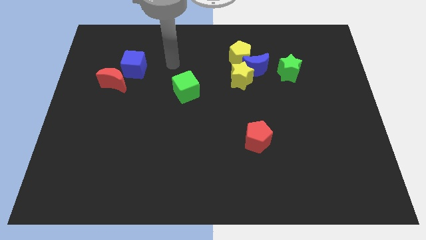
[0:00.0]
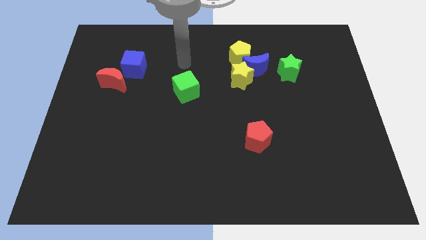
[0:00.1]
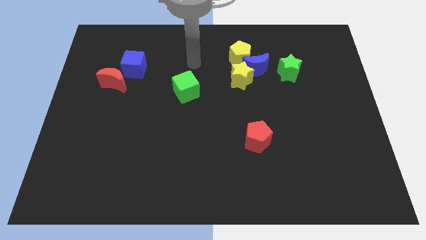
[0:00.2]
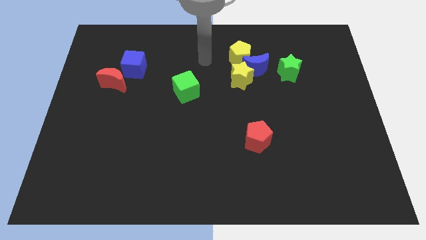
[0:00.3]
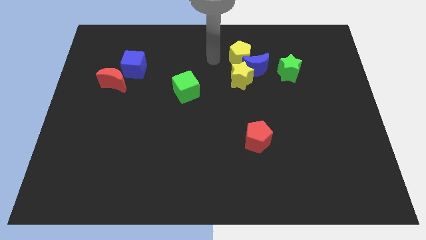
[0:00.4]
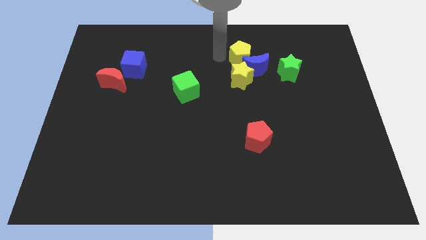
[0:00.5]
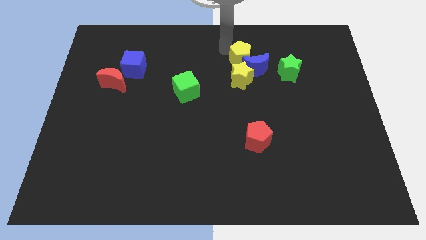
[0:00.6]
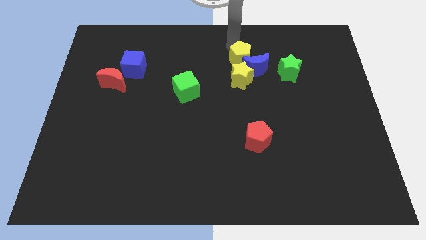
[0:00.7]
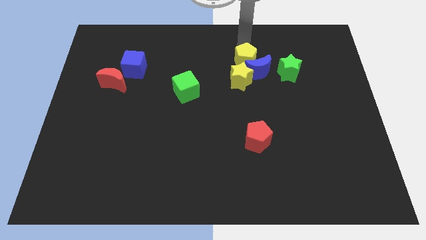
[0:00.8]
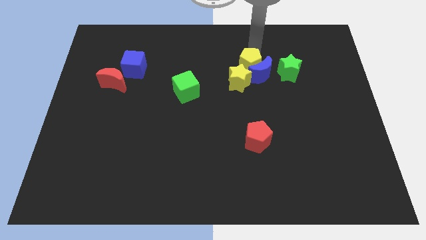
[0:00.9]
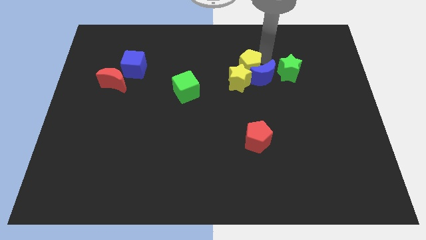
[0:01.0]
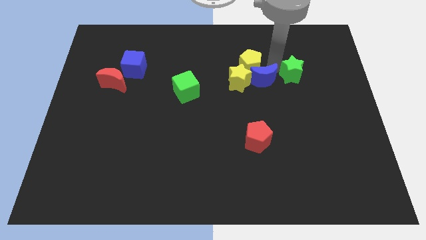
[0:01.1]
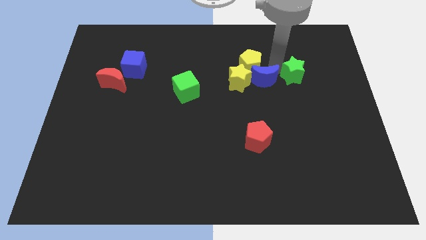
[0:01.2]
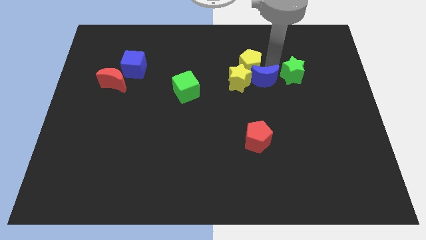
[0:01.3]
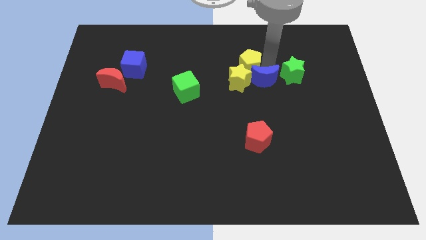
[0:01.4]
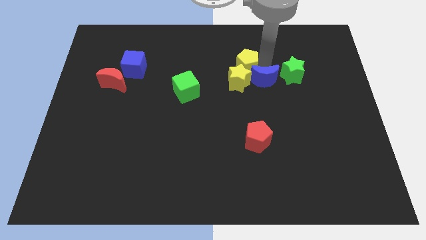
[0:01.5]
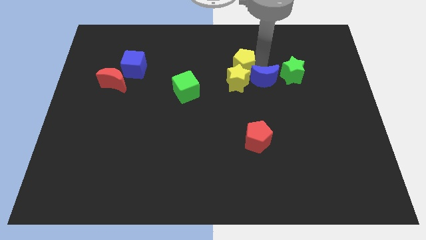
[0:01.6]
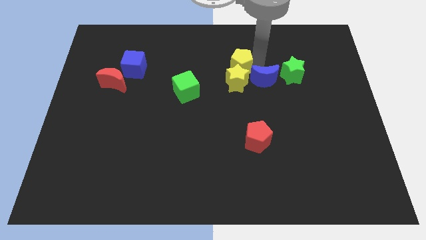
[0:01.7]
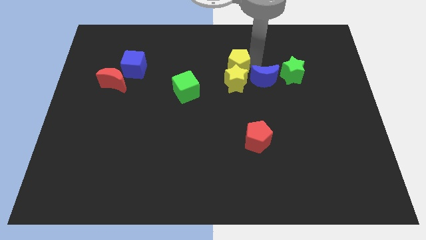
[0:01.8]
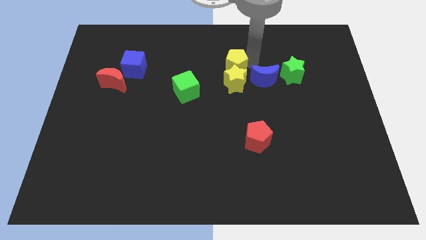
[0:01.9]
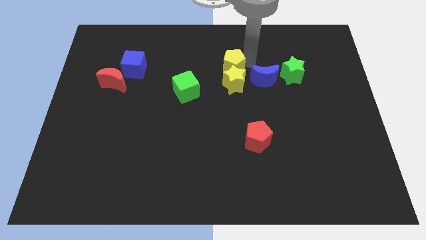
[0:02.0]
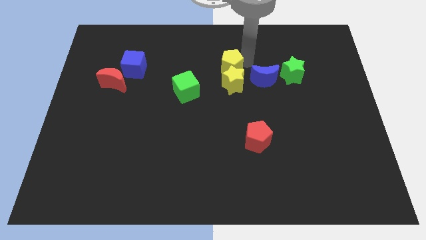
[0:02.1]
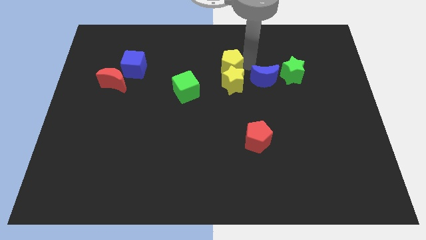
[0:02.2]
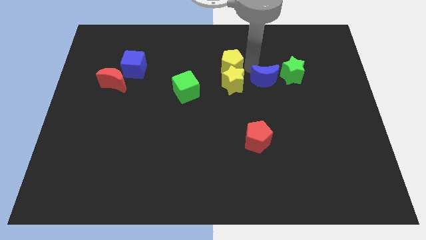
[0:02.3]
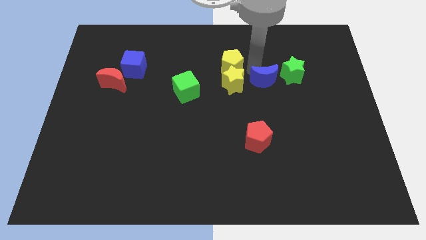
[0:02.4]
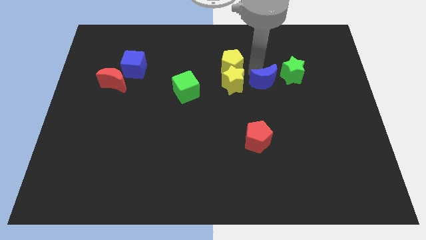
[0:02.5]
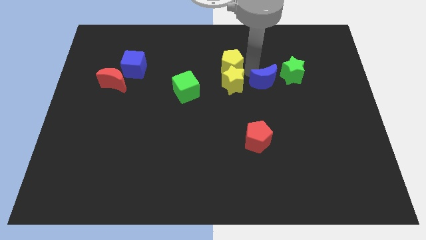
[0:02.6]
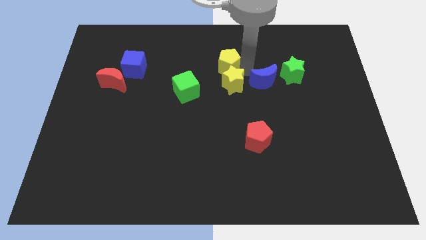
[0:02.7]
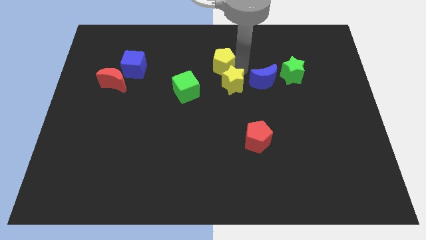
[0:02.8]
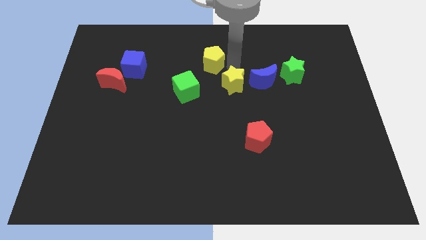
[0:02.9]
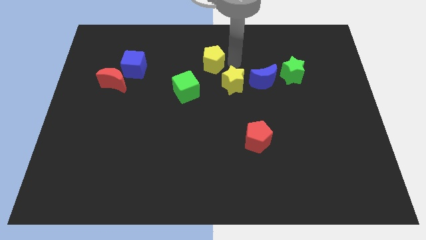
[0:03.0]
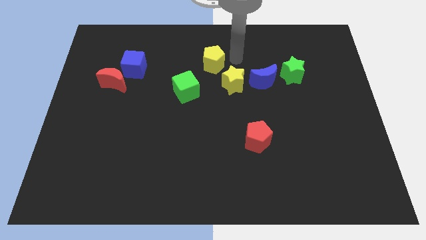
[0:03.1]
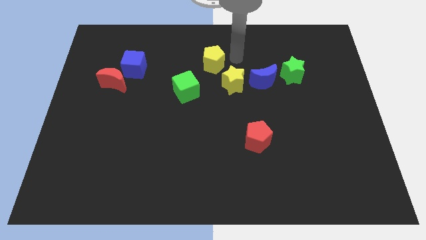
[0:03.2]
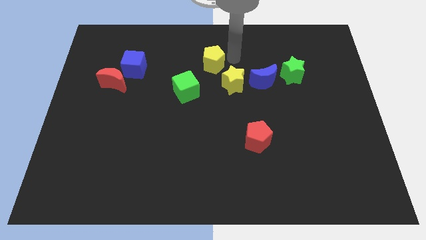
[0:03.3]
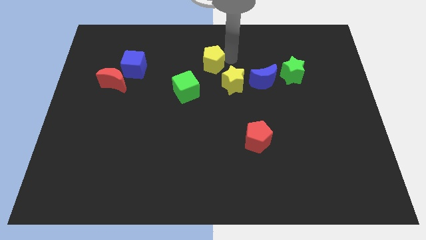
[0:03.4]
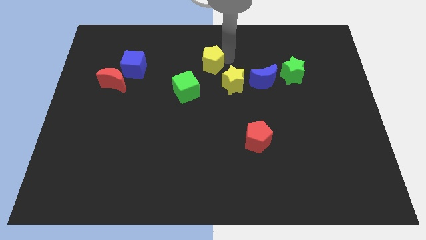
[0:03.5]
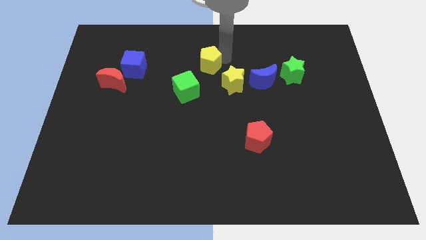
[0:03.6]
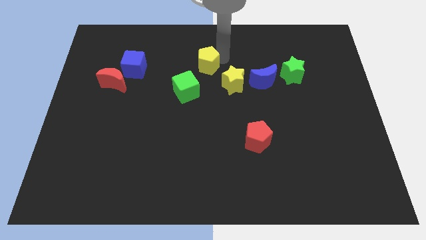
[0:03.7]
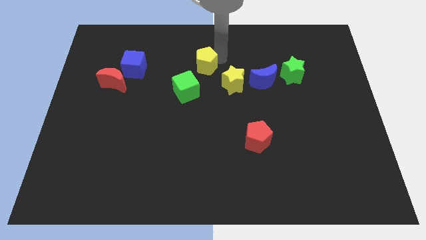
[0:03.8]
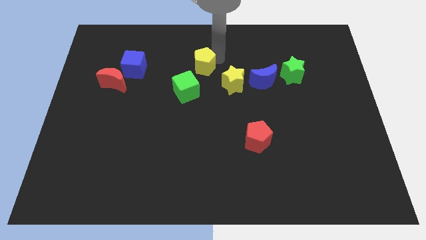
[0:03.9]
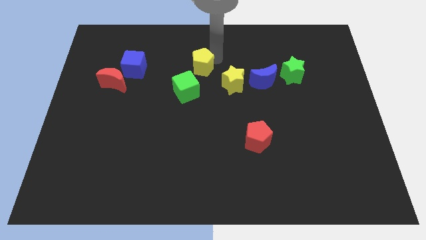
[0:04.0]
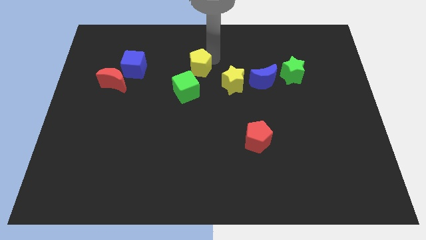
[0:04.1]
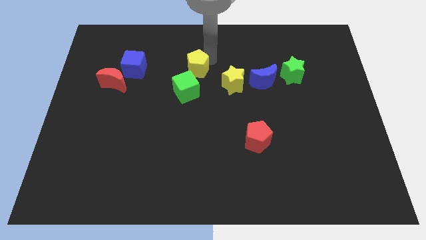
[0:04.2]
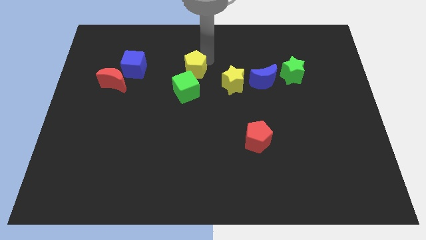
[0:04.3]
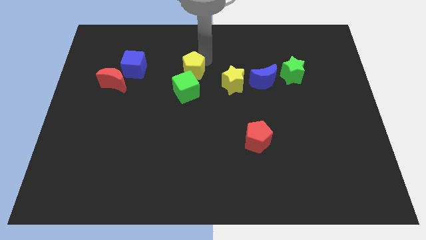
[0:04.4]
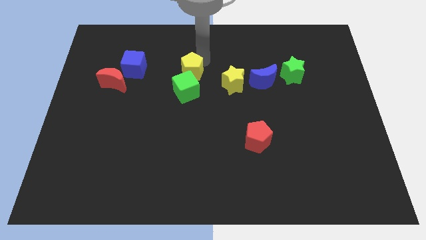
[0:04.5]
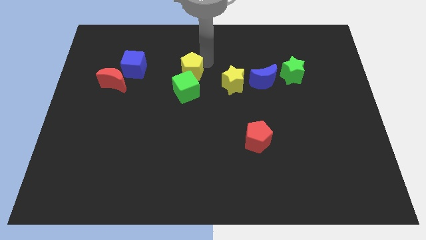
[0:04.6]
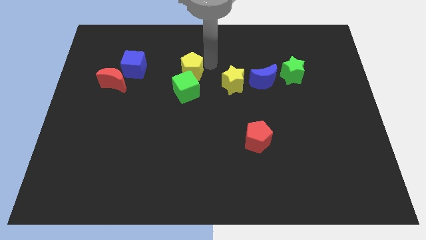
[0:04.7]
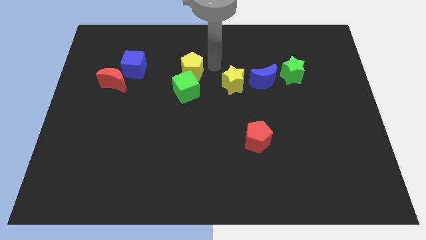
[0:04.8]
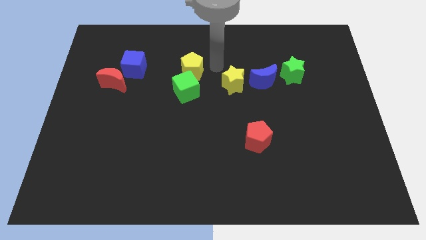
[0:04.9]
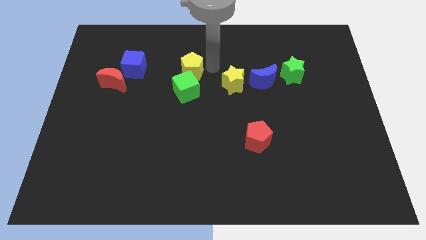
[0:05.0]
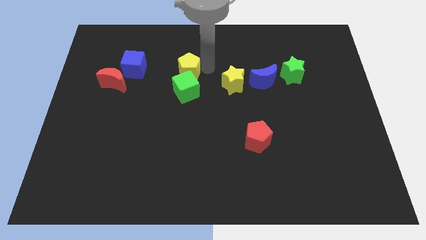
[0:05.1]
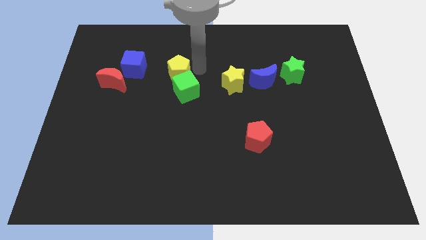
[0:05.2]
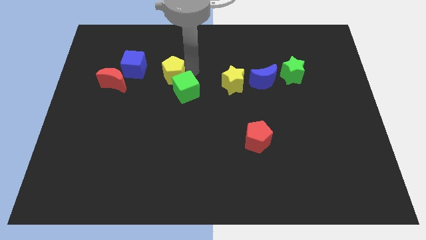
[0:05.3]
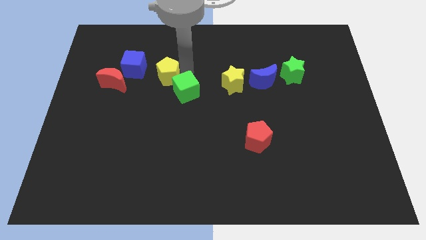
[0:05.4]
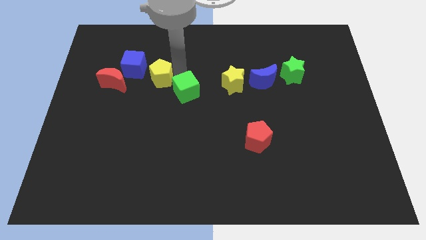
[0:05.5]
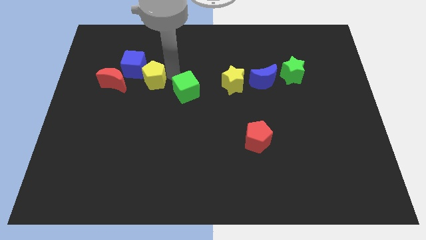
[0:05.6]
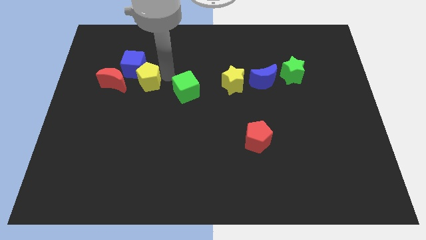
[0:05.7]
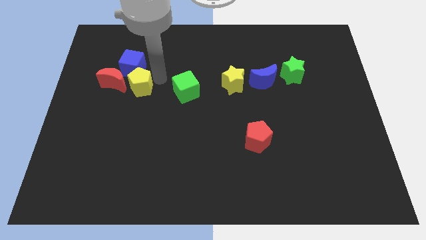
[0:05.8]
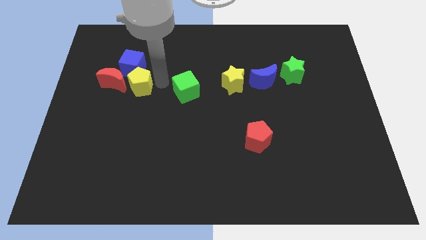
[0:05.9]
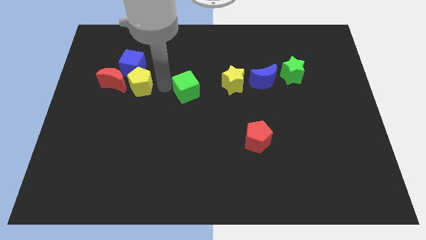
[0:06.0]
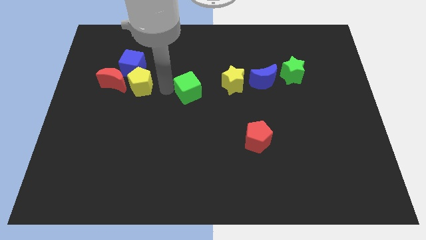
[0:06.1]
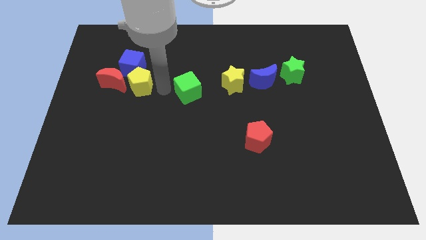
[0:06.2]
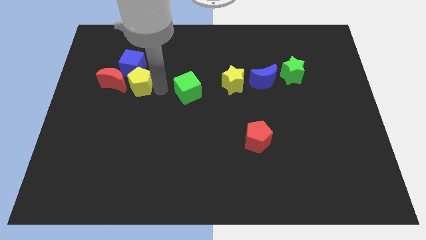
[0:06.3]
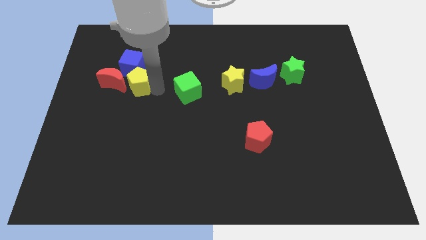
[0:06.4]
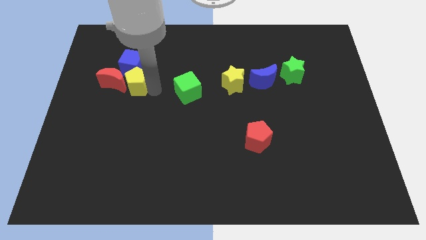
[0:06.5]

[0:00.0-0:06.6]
move the yellow pentagon close to the red moon

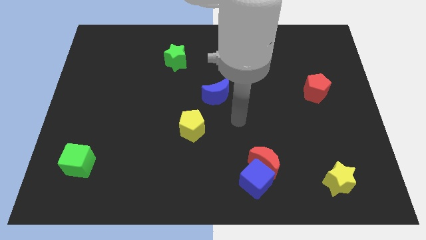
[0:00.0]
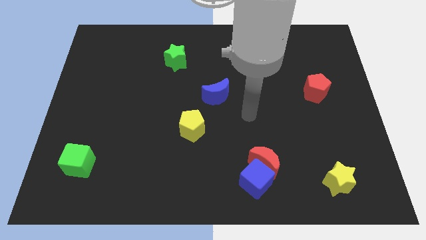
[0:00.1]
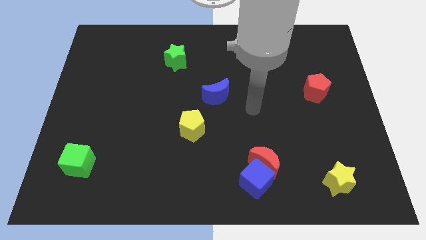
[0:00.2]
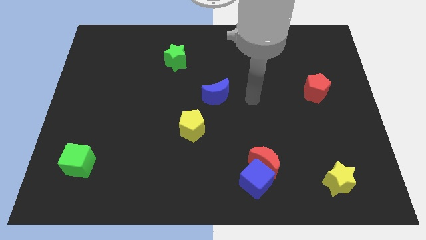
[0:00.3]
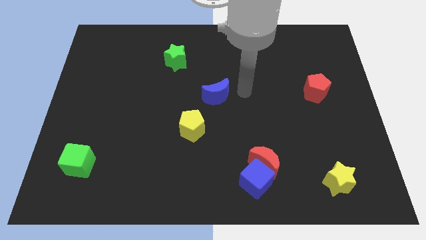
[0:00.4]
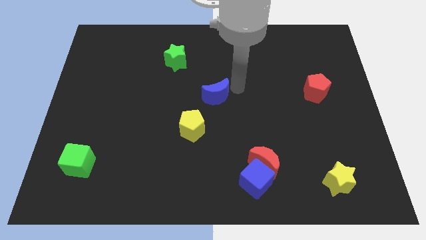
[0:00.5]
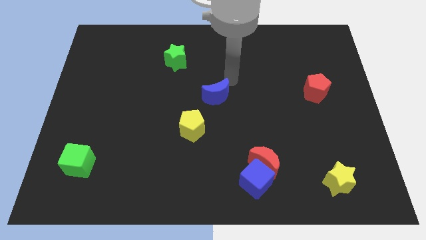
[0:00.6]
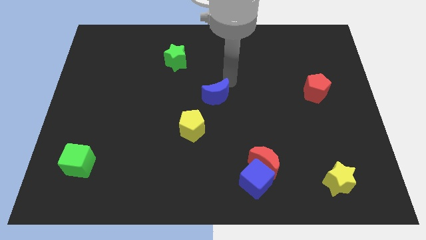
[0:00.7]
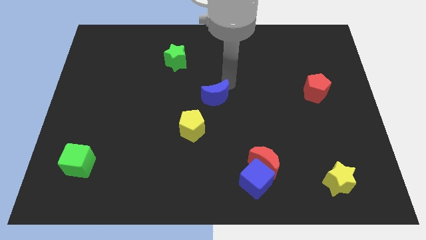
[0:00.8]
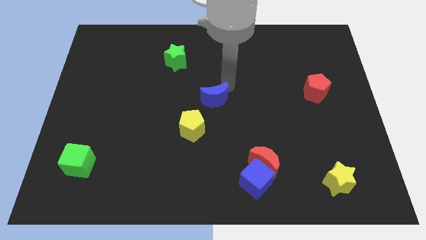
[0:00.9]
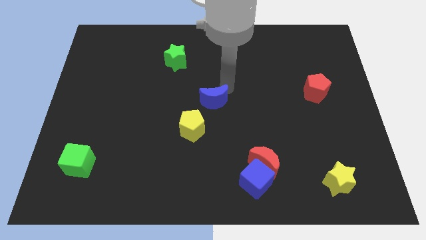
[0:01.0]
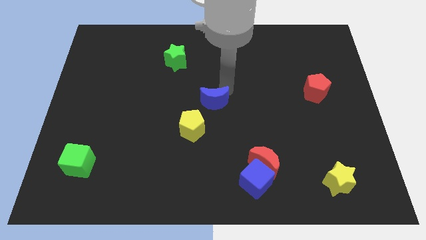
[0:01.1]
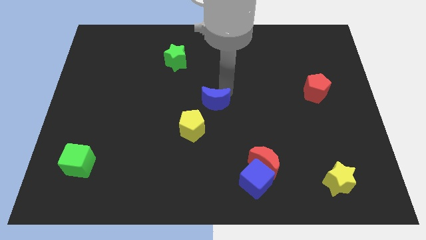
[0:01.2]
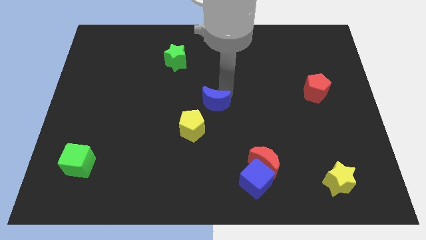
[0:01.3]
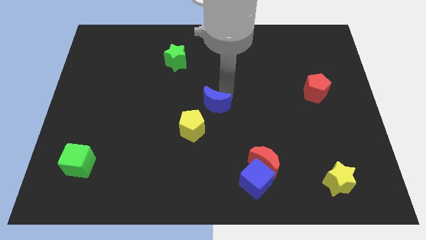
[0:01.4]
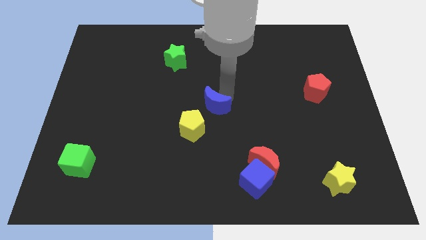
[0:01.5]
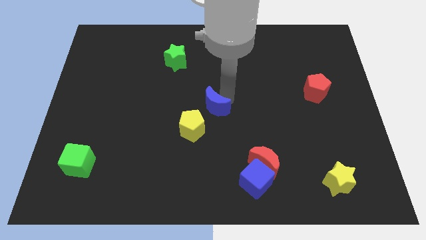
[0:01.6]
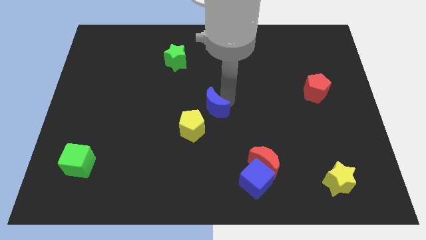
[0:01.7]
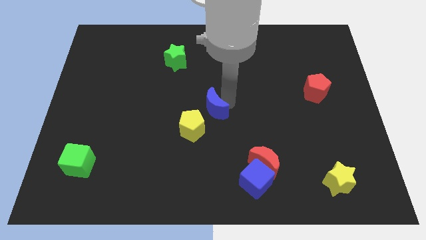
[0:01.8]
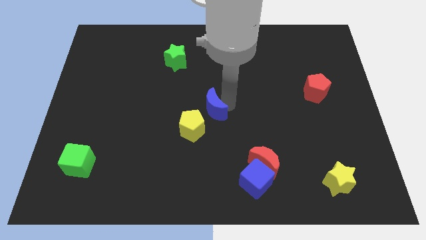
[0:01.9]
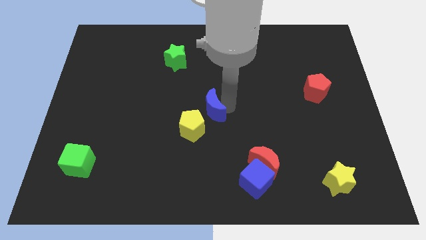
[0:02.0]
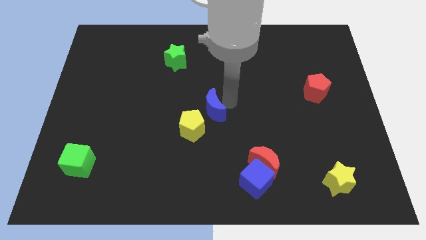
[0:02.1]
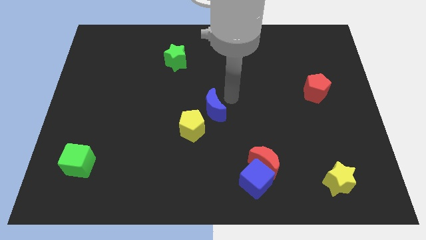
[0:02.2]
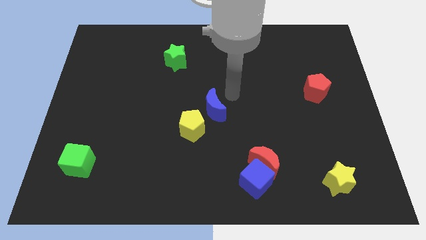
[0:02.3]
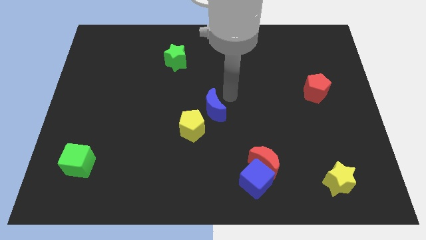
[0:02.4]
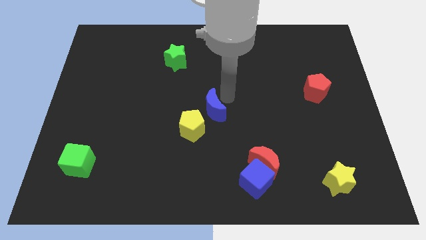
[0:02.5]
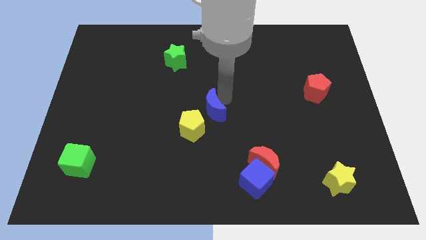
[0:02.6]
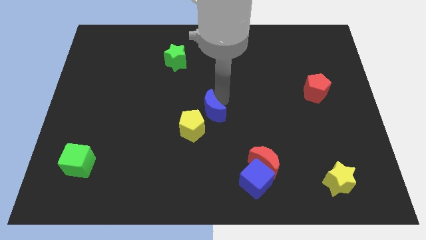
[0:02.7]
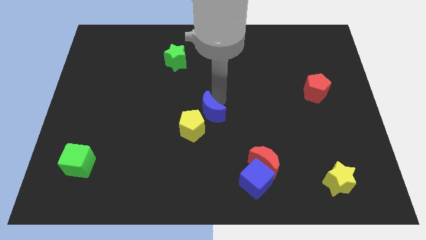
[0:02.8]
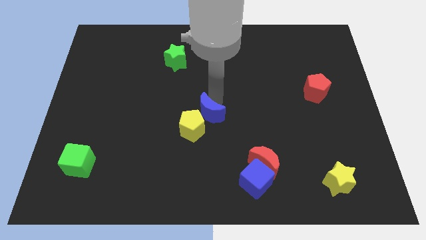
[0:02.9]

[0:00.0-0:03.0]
move the blue moon towards the yellow pentagon
